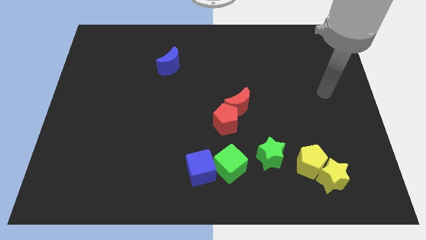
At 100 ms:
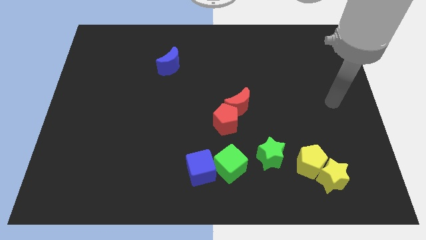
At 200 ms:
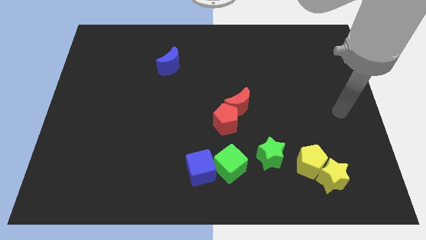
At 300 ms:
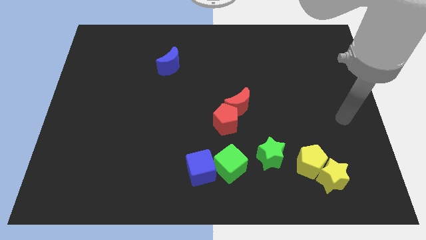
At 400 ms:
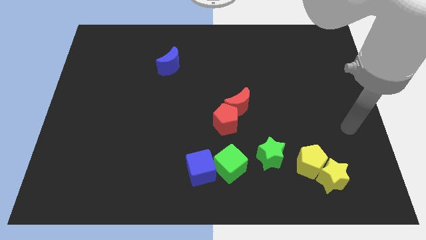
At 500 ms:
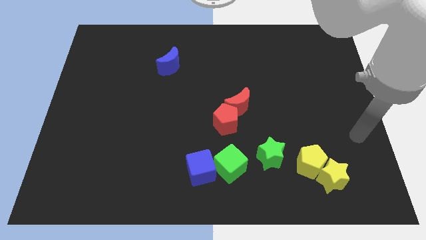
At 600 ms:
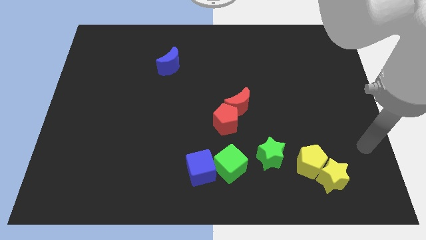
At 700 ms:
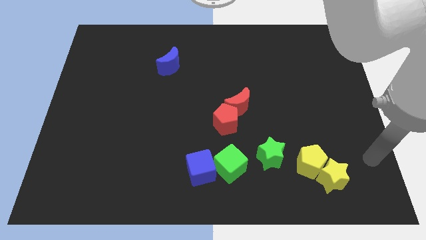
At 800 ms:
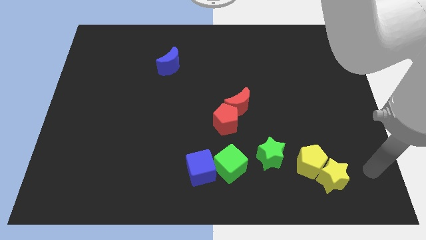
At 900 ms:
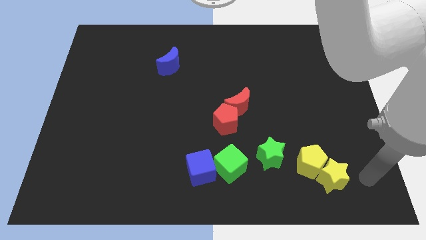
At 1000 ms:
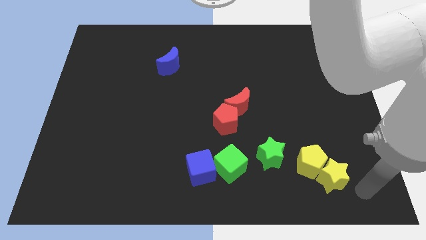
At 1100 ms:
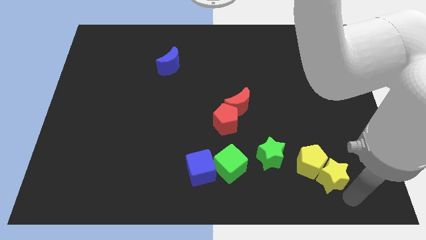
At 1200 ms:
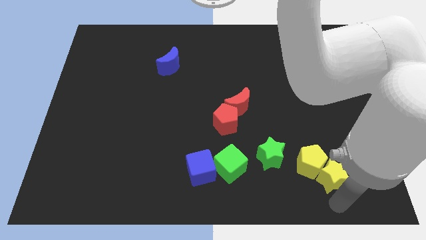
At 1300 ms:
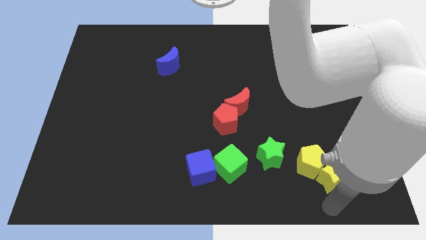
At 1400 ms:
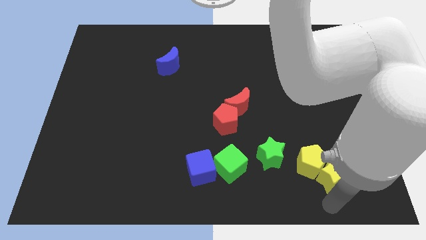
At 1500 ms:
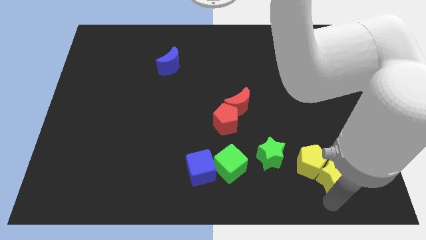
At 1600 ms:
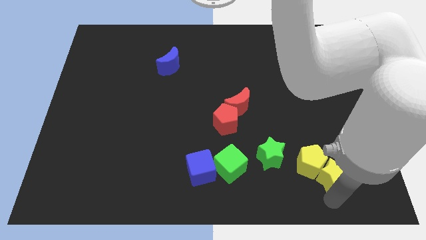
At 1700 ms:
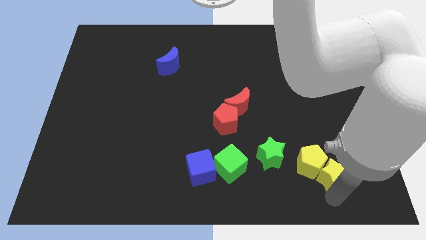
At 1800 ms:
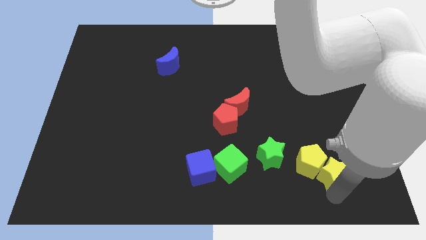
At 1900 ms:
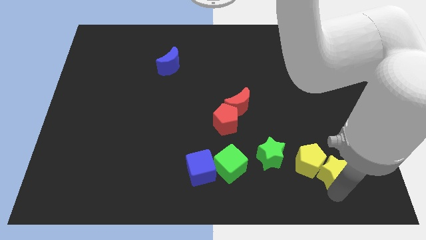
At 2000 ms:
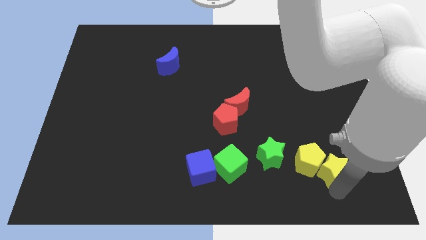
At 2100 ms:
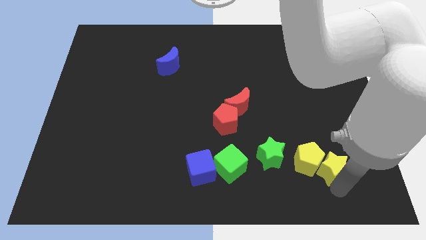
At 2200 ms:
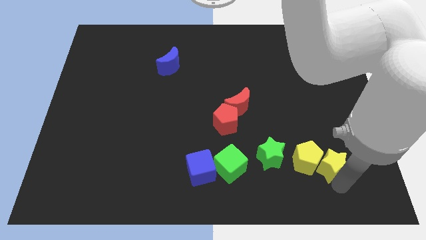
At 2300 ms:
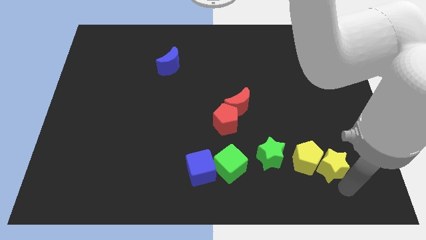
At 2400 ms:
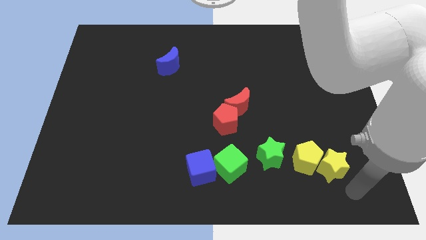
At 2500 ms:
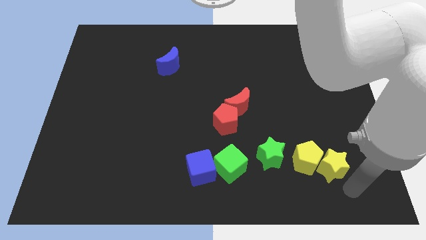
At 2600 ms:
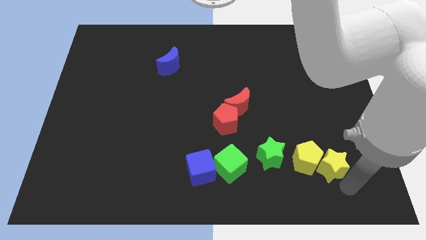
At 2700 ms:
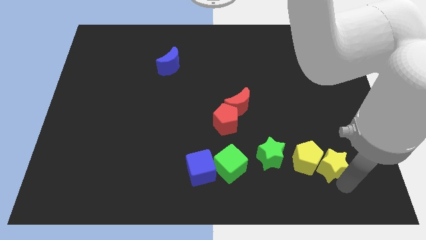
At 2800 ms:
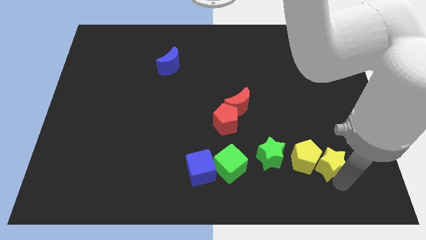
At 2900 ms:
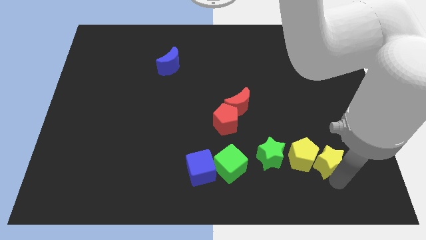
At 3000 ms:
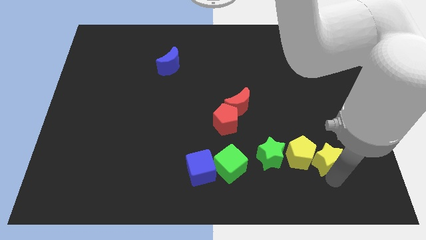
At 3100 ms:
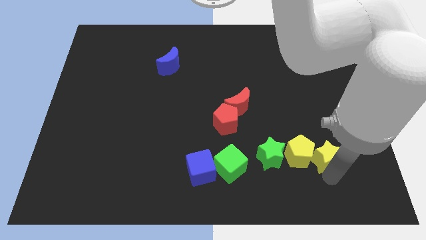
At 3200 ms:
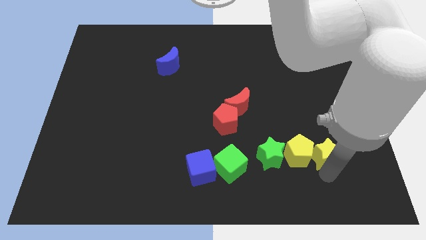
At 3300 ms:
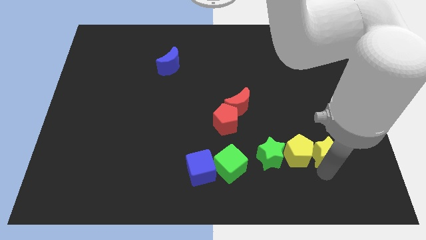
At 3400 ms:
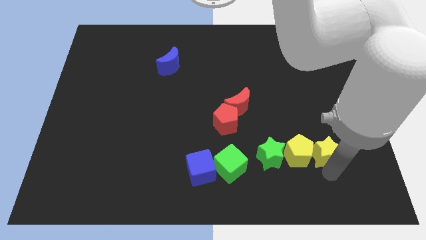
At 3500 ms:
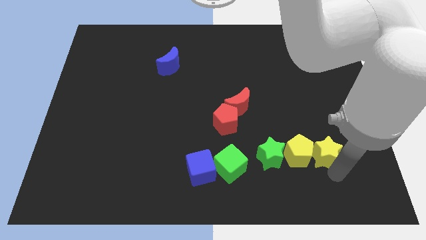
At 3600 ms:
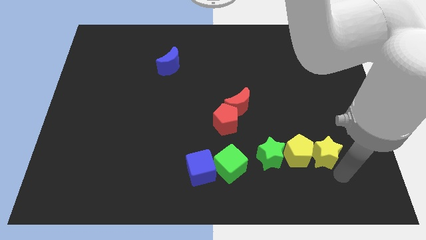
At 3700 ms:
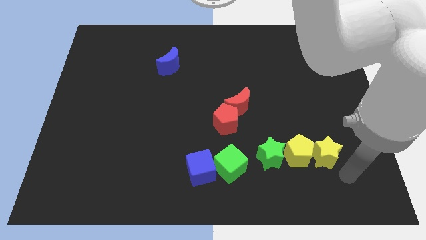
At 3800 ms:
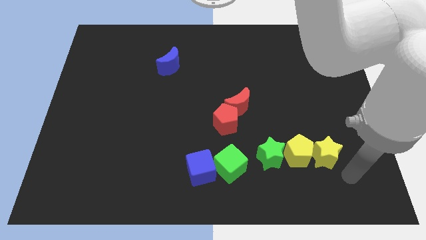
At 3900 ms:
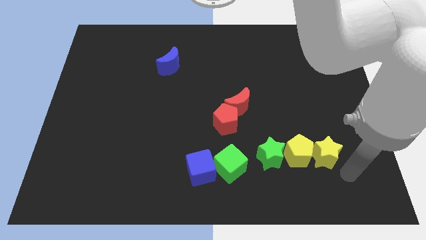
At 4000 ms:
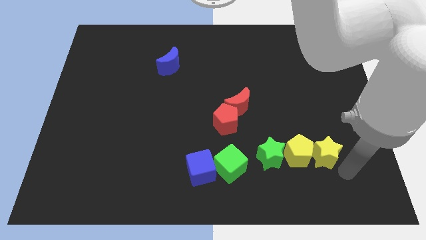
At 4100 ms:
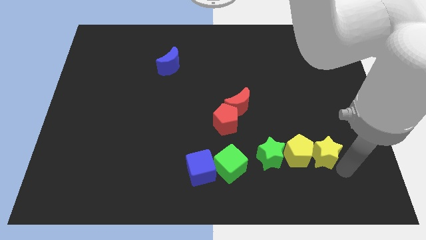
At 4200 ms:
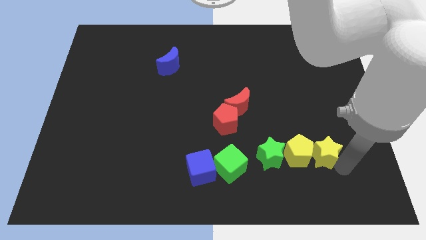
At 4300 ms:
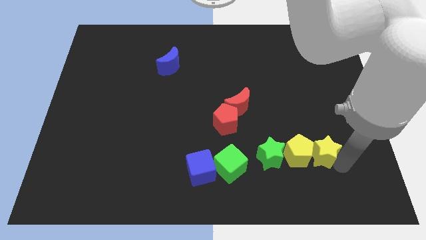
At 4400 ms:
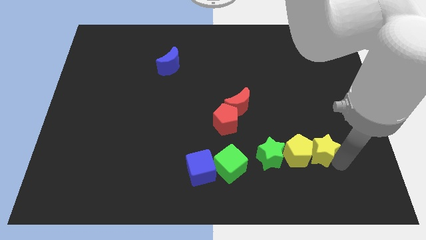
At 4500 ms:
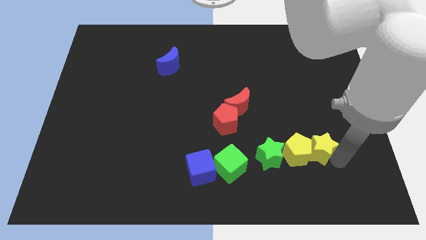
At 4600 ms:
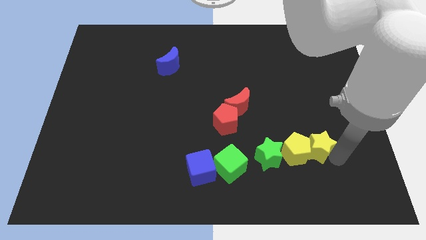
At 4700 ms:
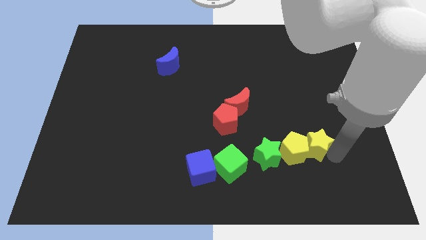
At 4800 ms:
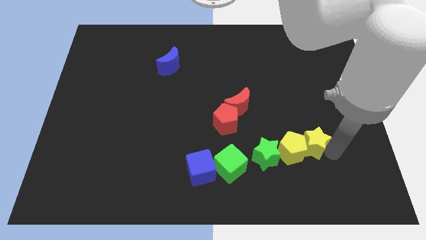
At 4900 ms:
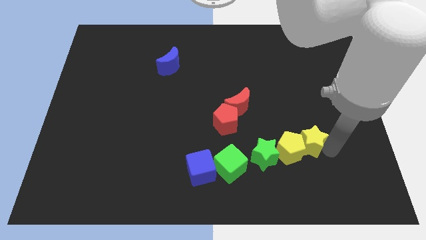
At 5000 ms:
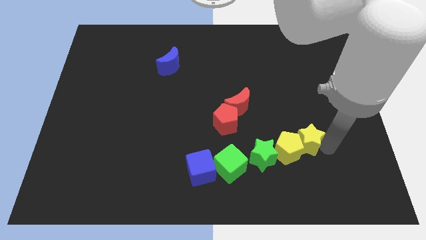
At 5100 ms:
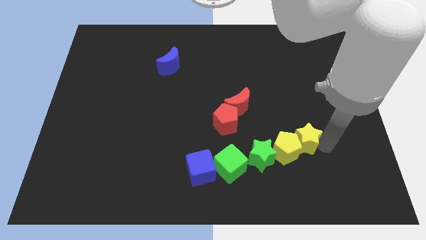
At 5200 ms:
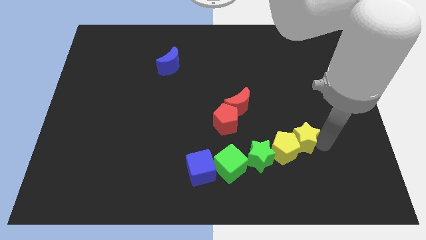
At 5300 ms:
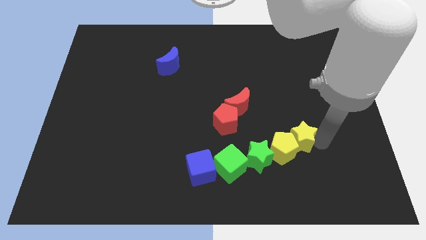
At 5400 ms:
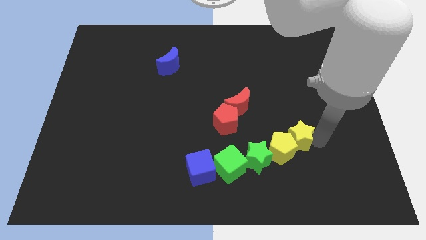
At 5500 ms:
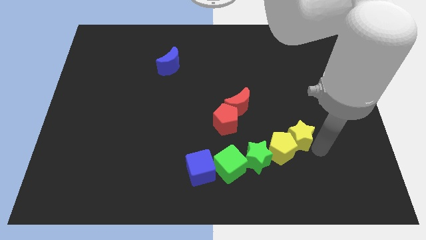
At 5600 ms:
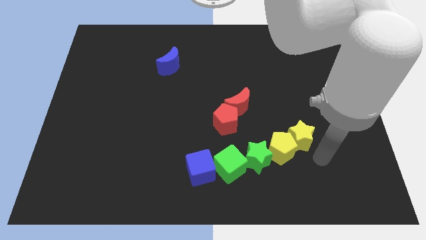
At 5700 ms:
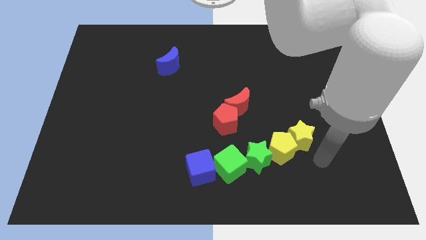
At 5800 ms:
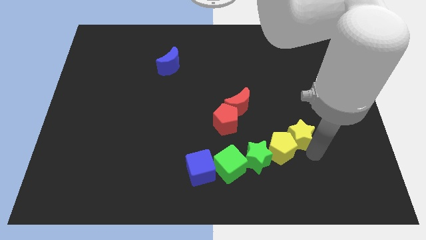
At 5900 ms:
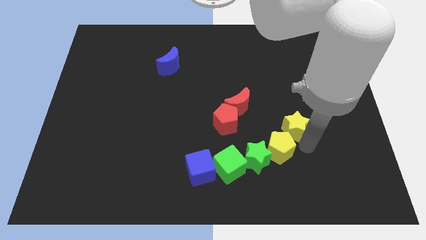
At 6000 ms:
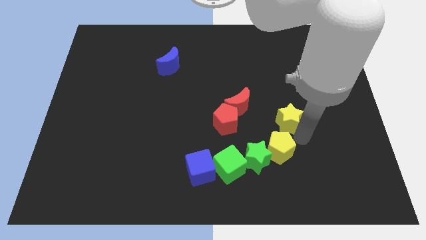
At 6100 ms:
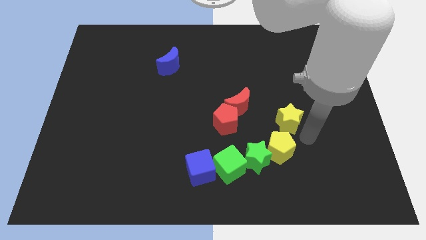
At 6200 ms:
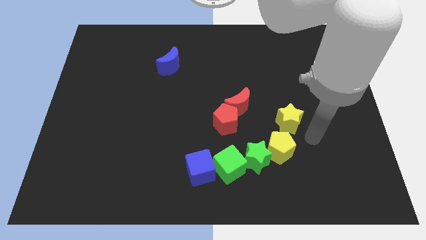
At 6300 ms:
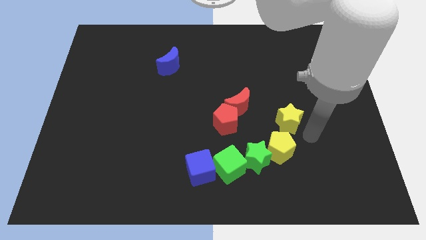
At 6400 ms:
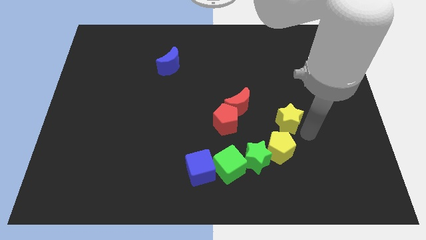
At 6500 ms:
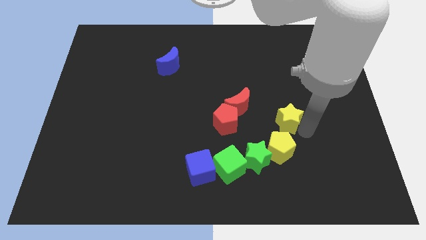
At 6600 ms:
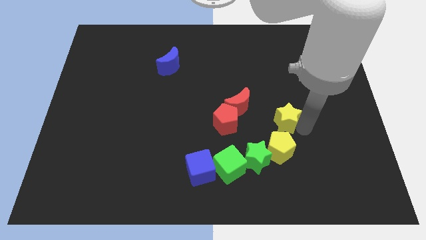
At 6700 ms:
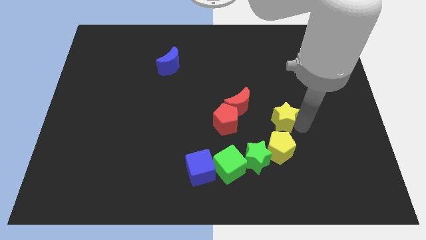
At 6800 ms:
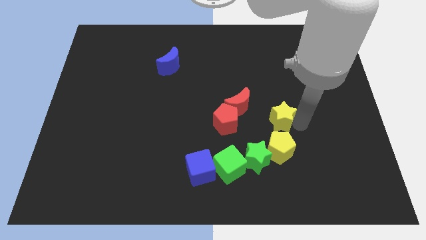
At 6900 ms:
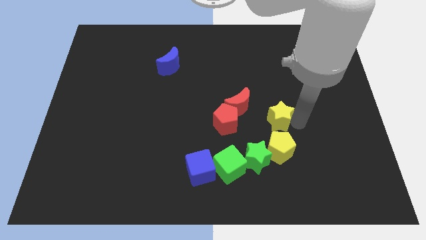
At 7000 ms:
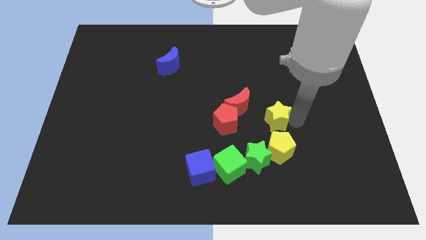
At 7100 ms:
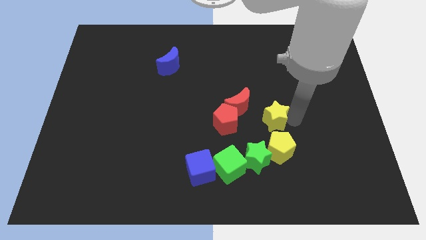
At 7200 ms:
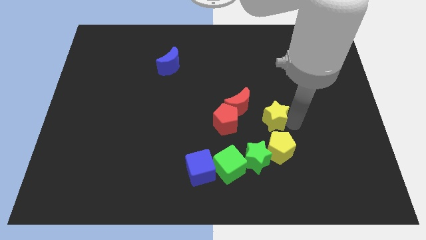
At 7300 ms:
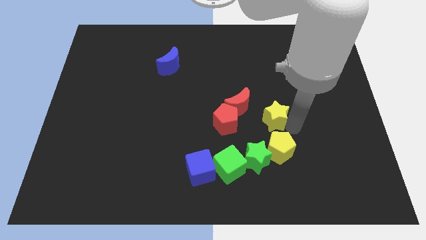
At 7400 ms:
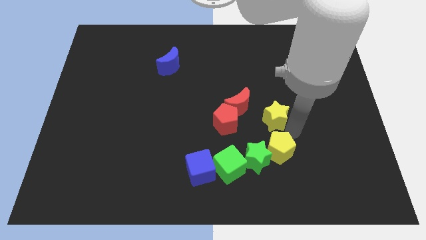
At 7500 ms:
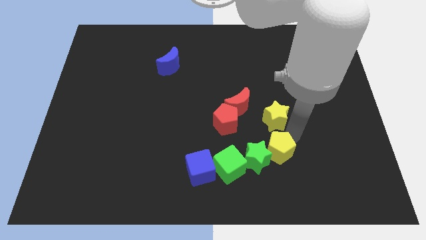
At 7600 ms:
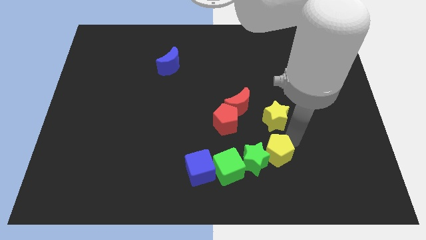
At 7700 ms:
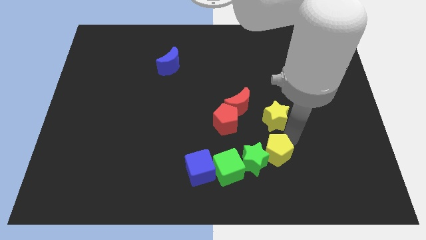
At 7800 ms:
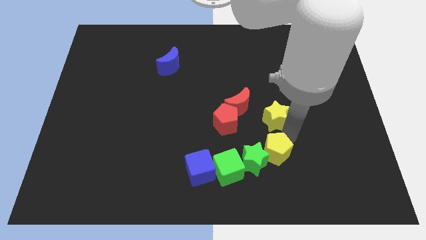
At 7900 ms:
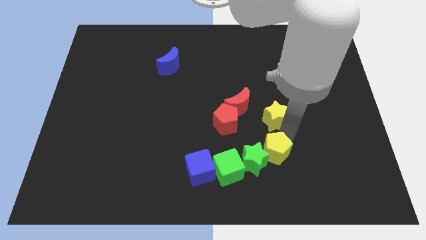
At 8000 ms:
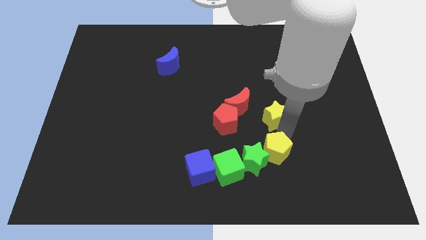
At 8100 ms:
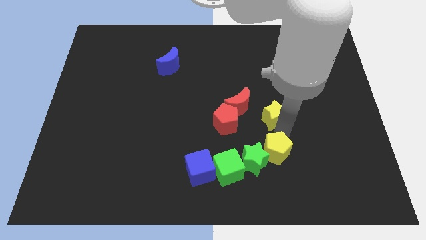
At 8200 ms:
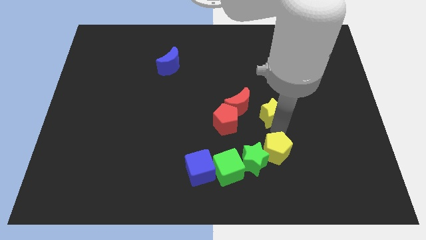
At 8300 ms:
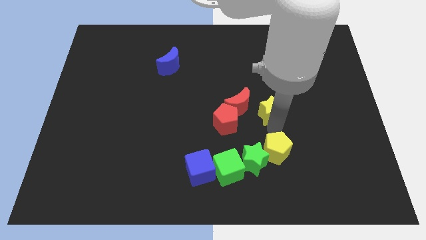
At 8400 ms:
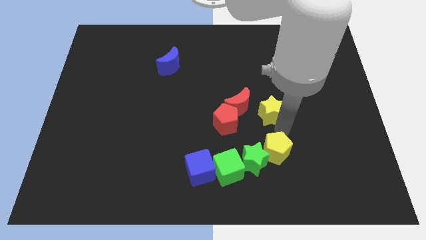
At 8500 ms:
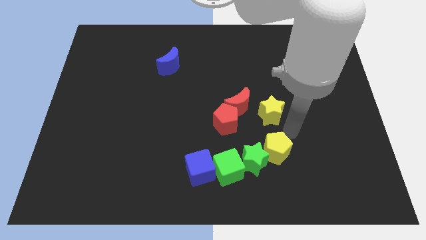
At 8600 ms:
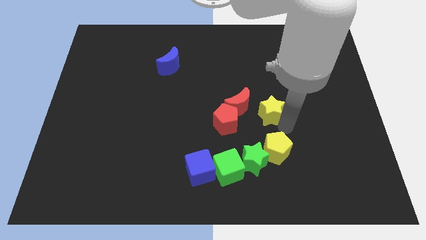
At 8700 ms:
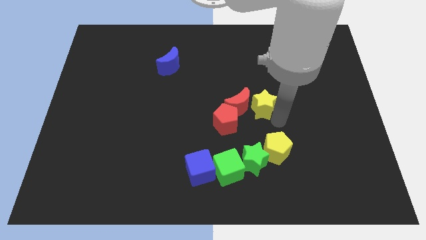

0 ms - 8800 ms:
slide the yellow star to the center
